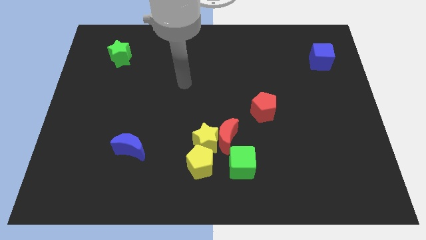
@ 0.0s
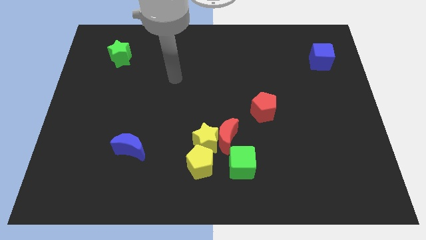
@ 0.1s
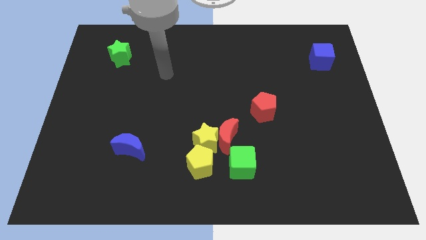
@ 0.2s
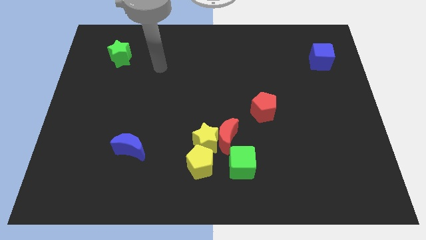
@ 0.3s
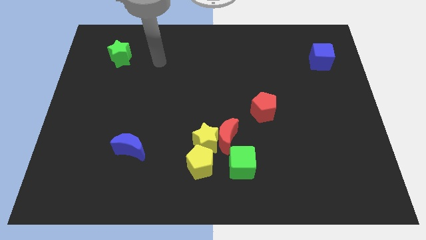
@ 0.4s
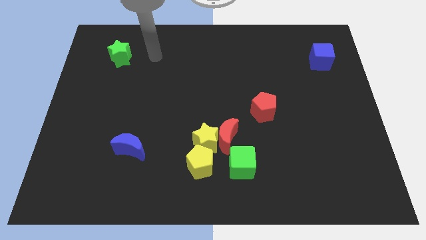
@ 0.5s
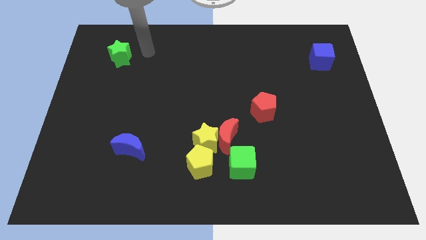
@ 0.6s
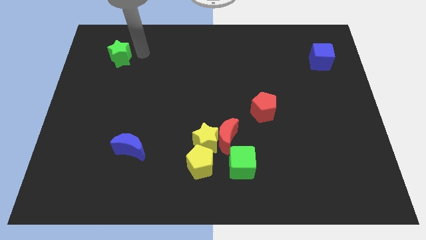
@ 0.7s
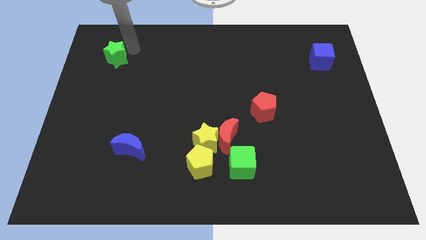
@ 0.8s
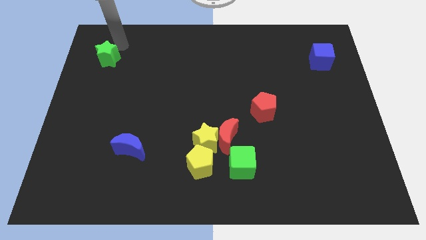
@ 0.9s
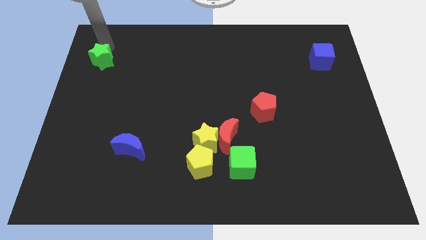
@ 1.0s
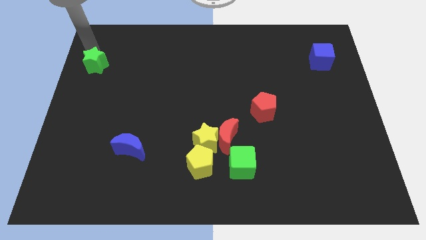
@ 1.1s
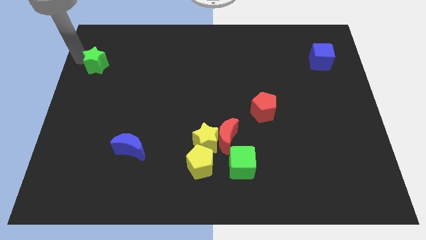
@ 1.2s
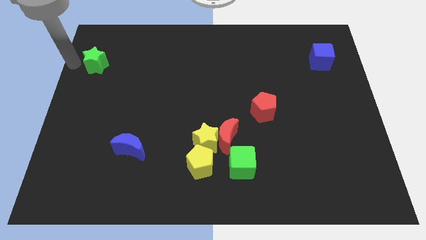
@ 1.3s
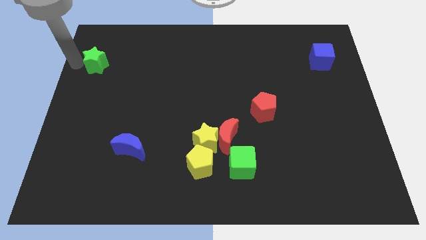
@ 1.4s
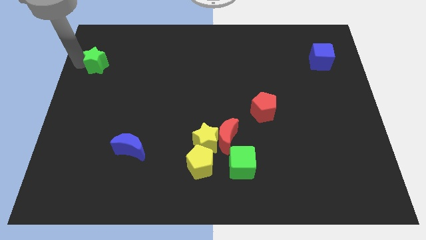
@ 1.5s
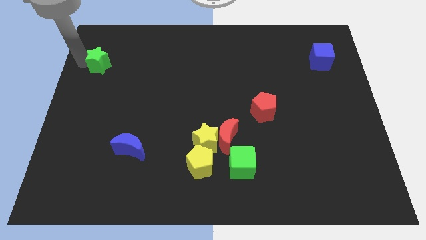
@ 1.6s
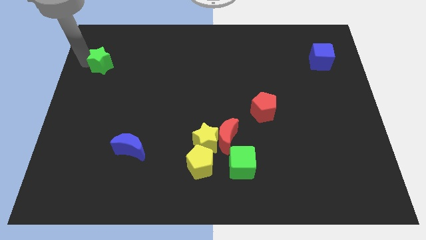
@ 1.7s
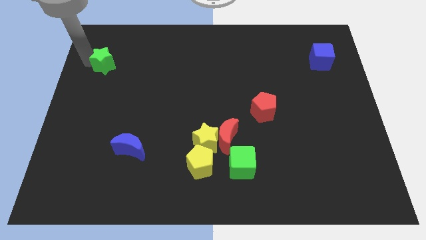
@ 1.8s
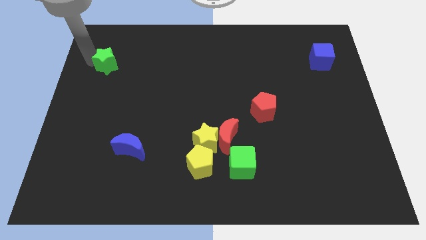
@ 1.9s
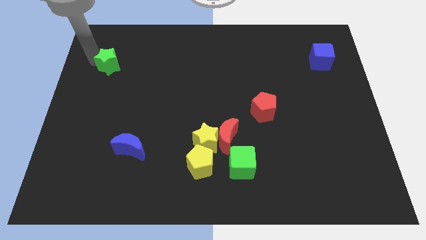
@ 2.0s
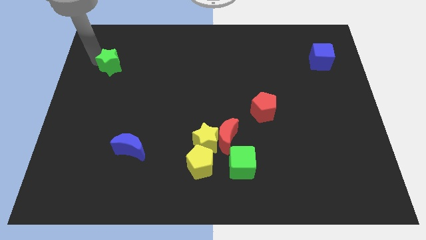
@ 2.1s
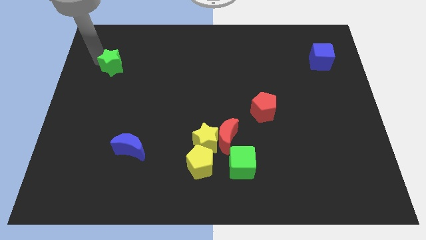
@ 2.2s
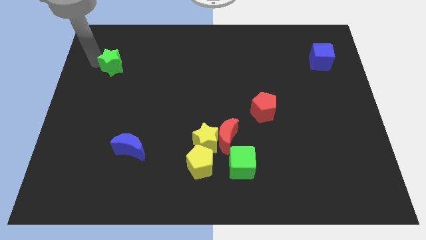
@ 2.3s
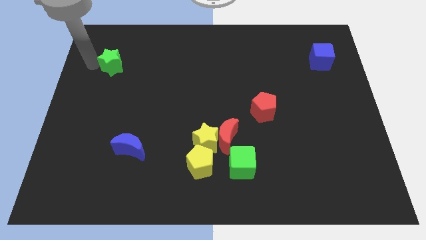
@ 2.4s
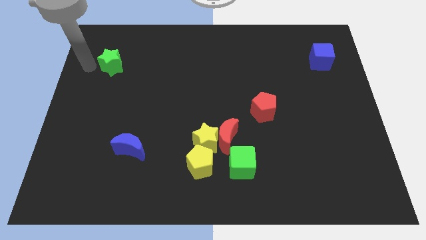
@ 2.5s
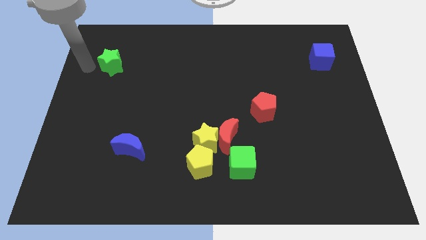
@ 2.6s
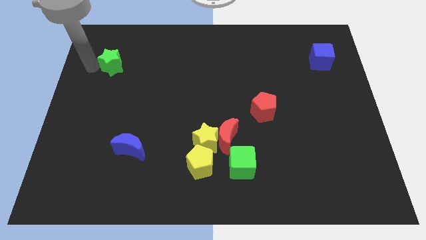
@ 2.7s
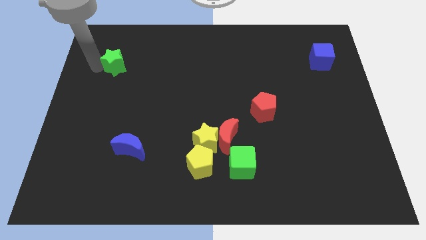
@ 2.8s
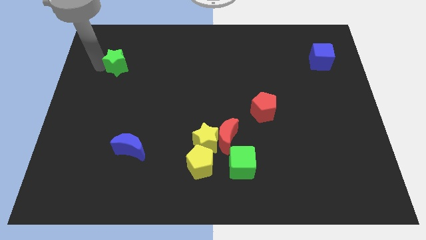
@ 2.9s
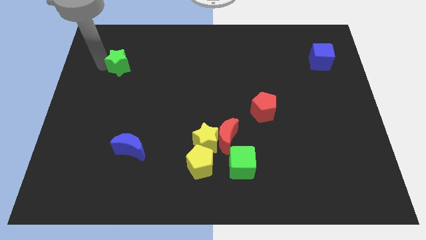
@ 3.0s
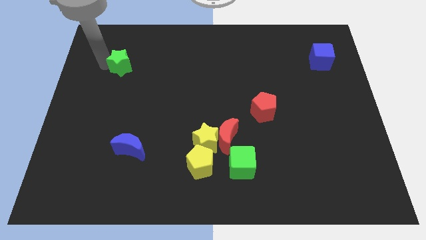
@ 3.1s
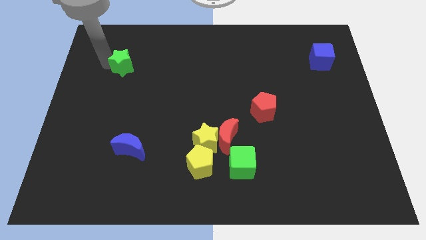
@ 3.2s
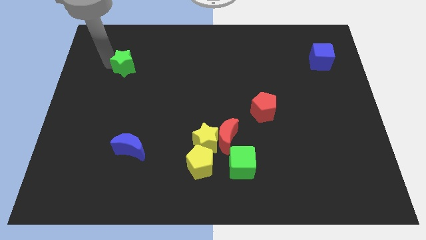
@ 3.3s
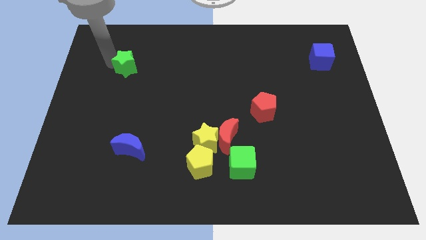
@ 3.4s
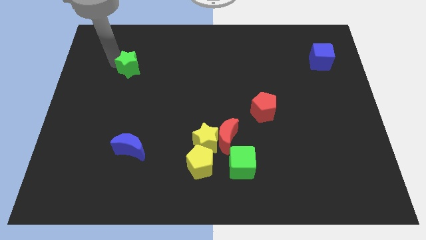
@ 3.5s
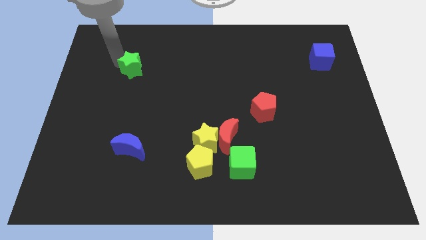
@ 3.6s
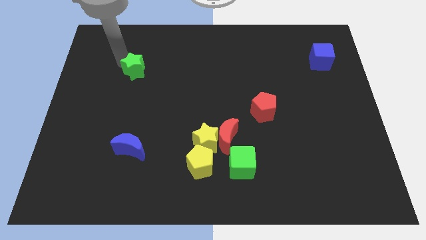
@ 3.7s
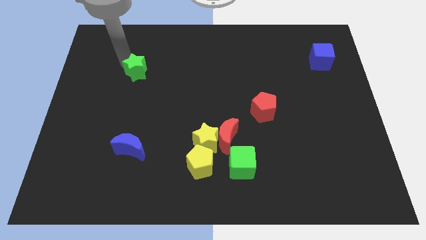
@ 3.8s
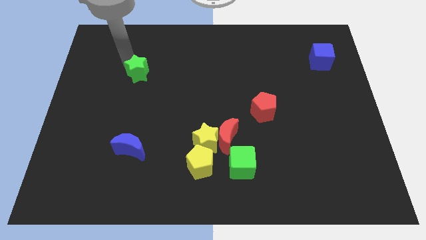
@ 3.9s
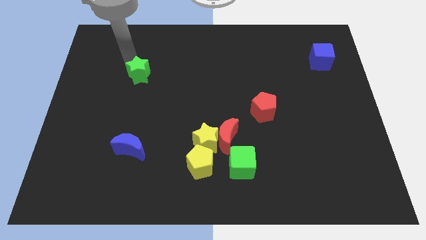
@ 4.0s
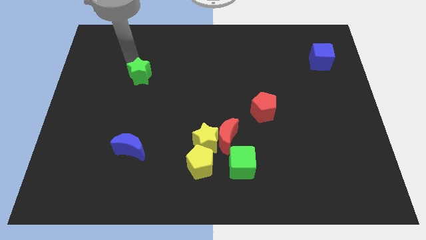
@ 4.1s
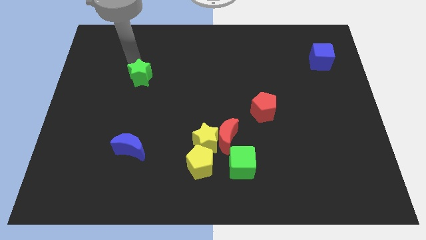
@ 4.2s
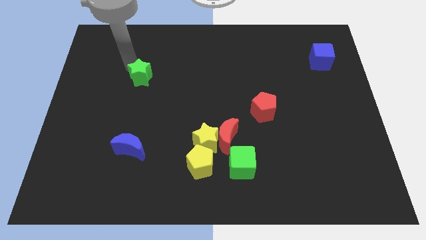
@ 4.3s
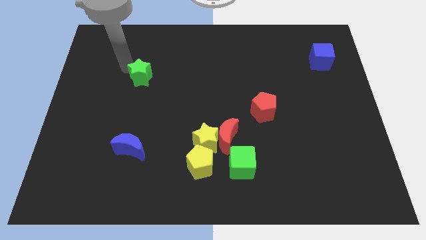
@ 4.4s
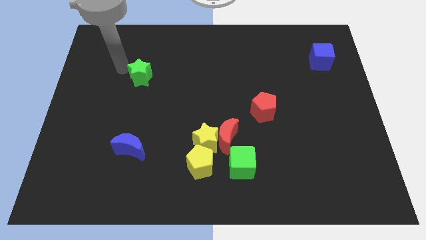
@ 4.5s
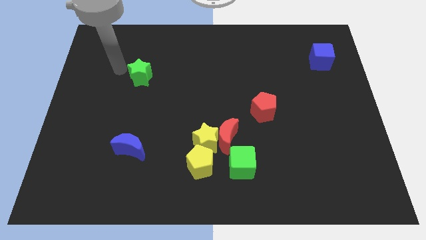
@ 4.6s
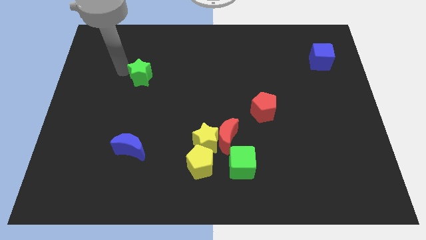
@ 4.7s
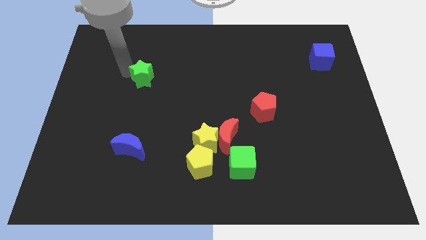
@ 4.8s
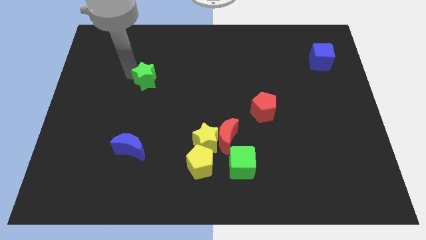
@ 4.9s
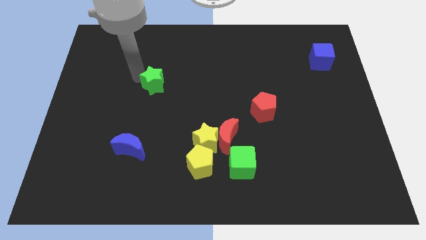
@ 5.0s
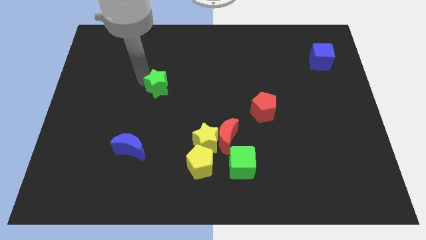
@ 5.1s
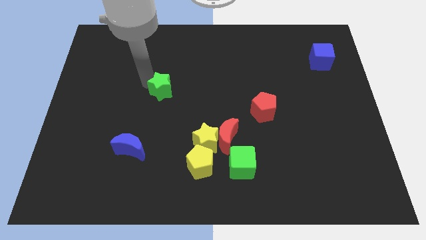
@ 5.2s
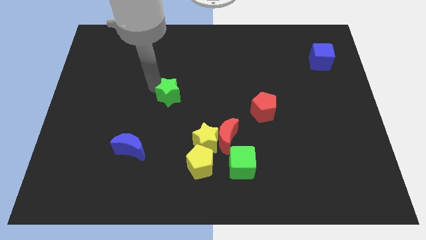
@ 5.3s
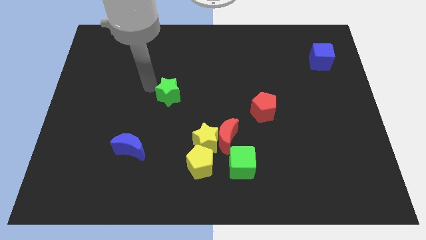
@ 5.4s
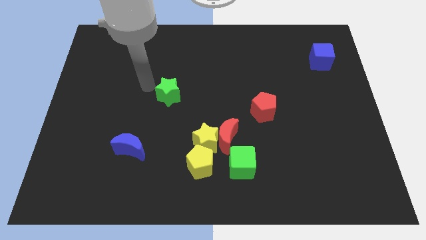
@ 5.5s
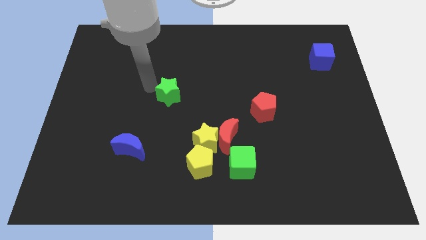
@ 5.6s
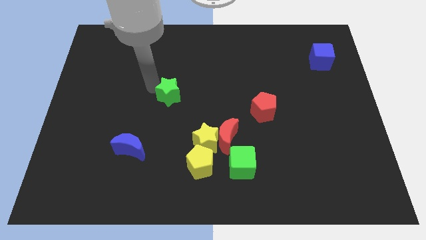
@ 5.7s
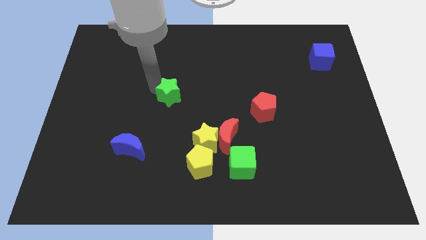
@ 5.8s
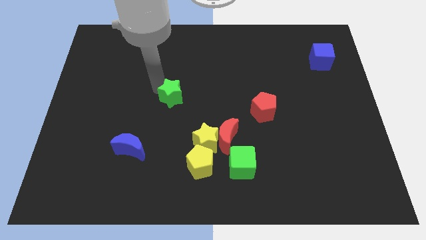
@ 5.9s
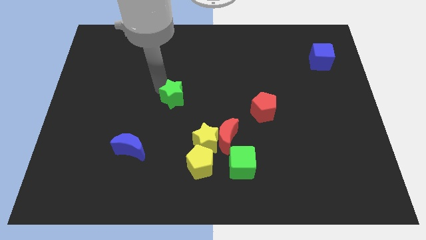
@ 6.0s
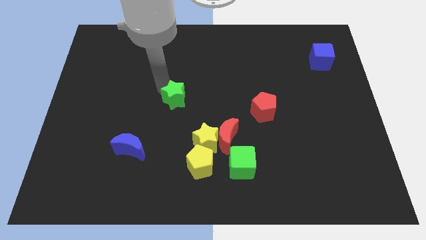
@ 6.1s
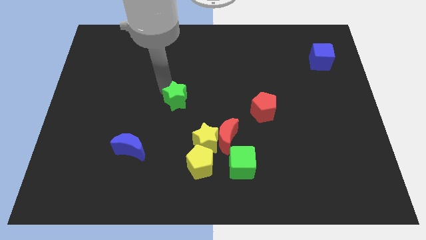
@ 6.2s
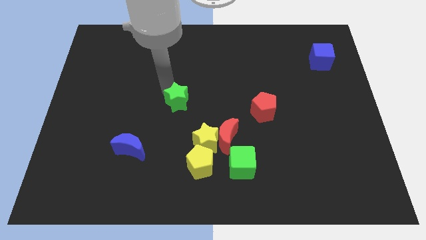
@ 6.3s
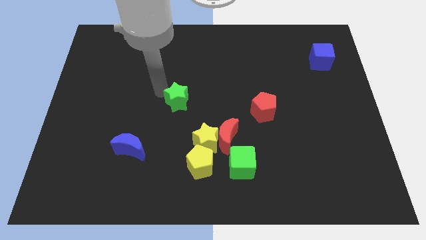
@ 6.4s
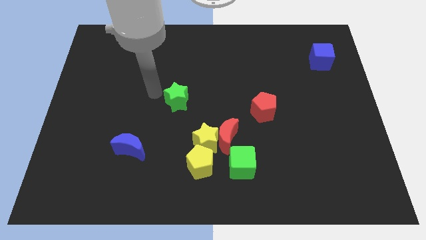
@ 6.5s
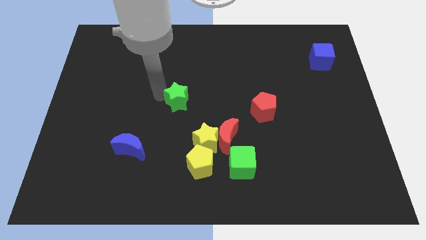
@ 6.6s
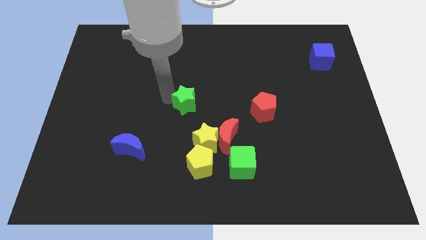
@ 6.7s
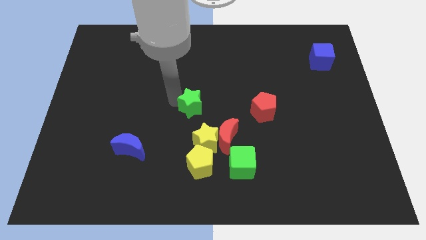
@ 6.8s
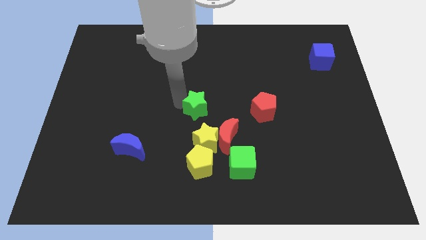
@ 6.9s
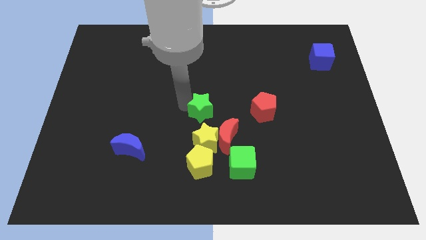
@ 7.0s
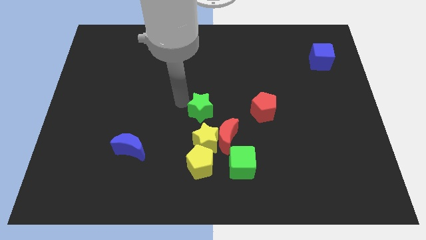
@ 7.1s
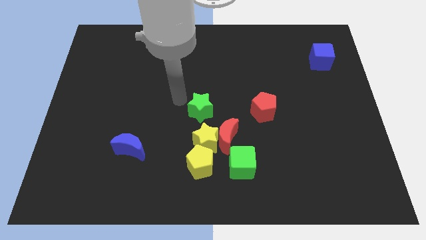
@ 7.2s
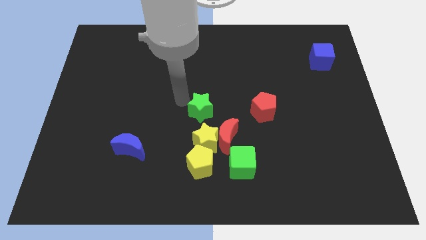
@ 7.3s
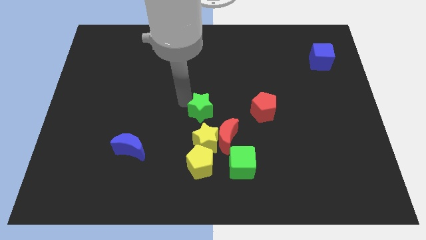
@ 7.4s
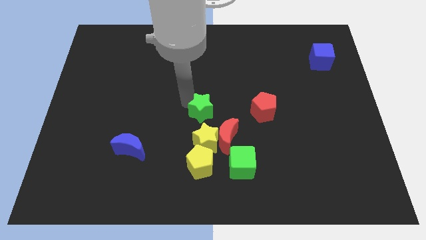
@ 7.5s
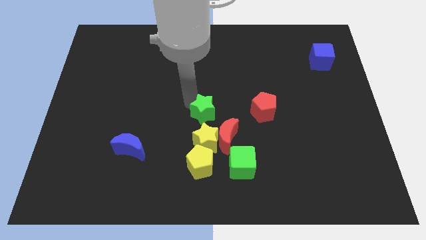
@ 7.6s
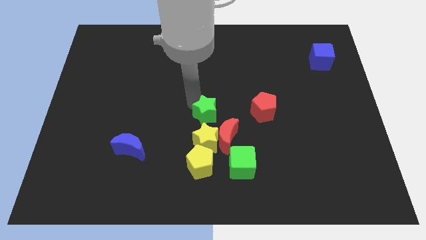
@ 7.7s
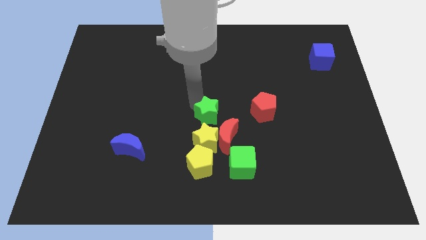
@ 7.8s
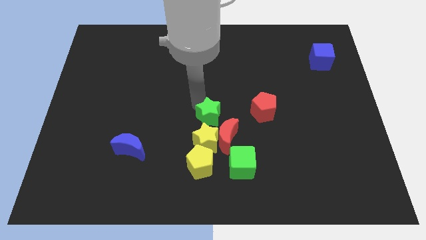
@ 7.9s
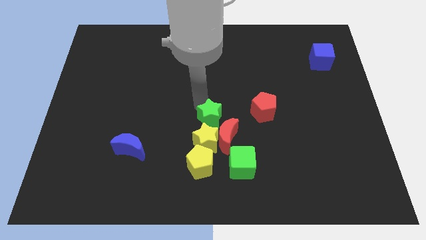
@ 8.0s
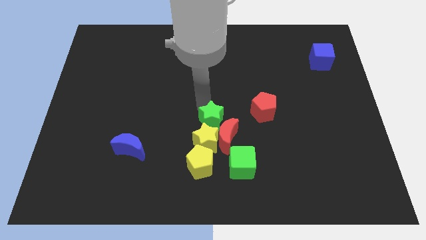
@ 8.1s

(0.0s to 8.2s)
push the green star towards the red moon
